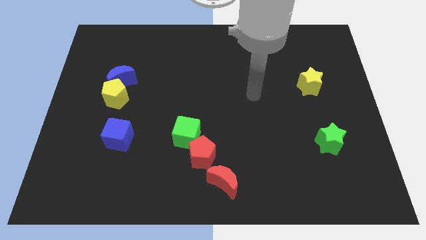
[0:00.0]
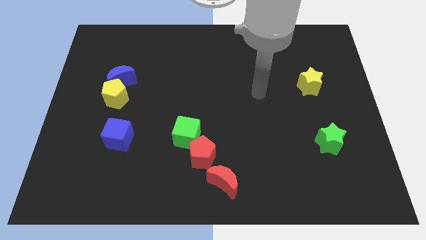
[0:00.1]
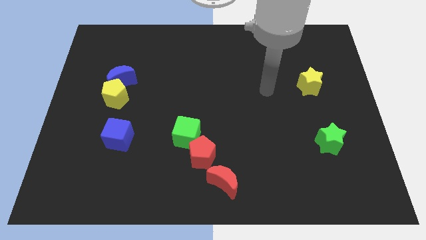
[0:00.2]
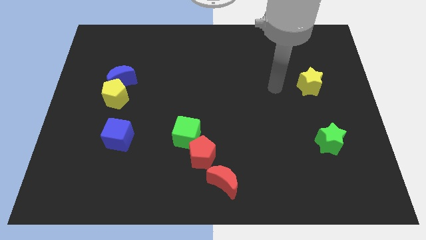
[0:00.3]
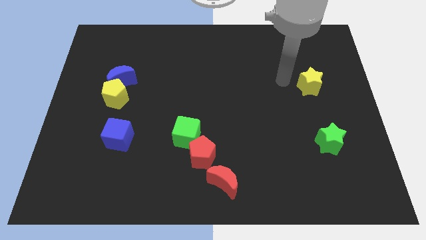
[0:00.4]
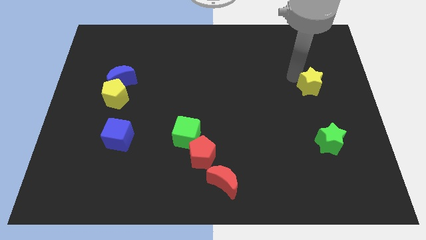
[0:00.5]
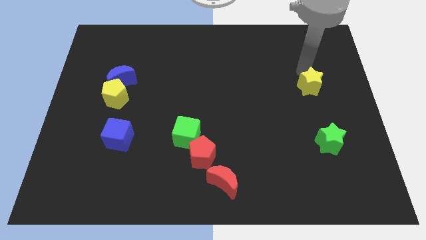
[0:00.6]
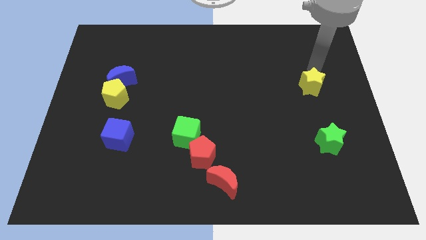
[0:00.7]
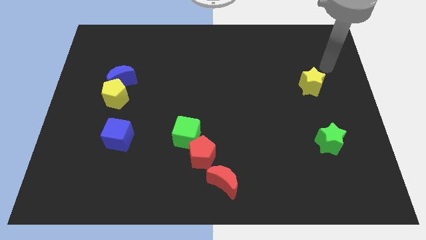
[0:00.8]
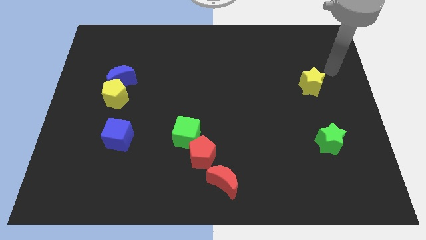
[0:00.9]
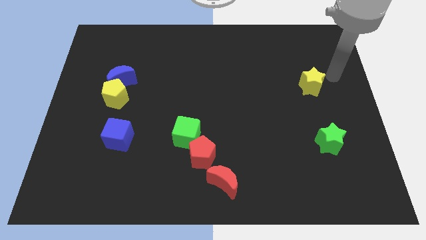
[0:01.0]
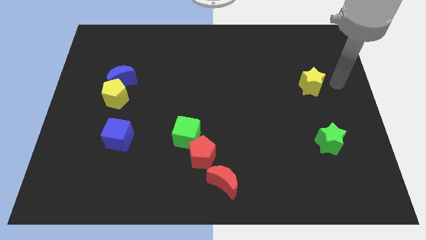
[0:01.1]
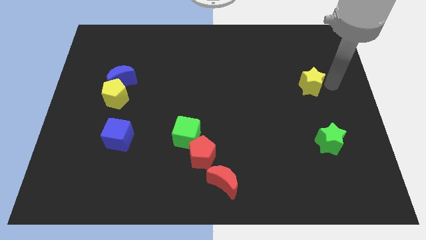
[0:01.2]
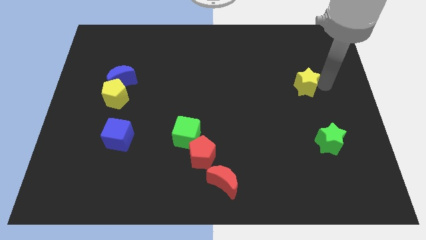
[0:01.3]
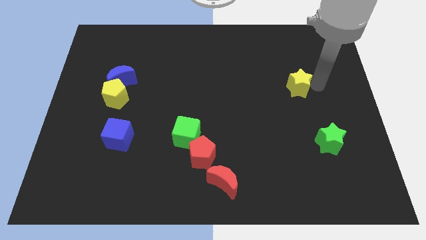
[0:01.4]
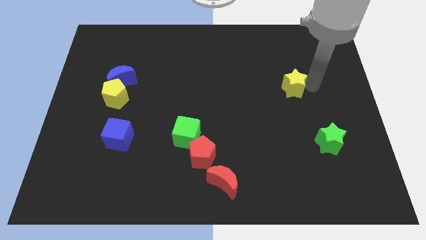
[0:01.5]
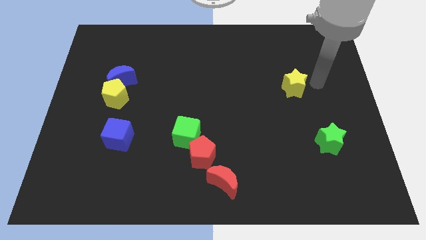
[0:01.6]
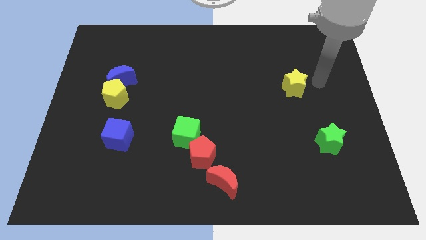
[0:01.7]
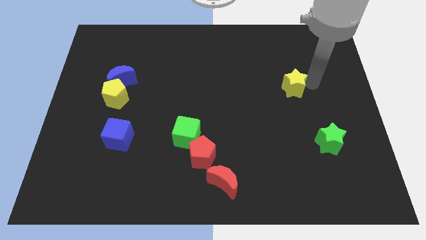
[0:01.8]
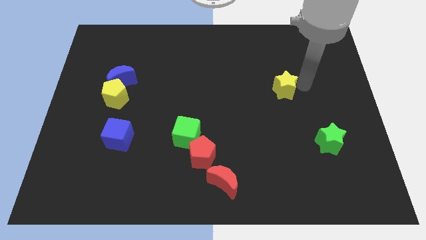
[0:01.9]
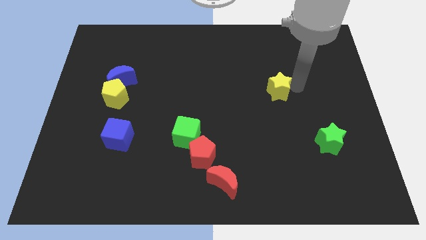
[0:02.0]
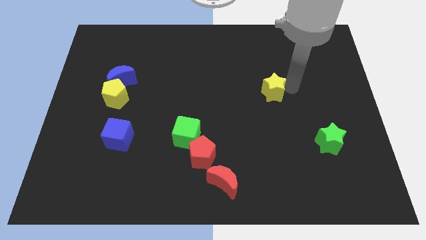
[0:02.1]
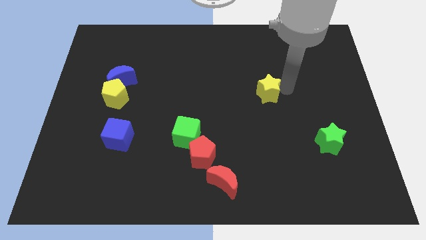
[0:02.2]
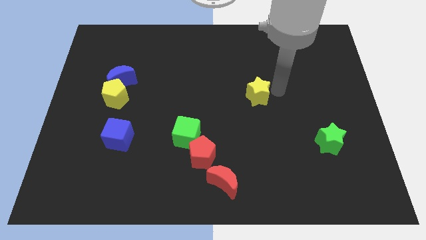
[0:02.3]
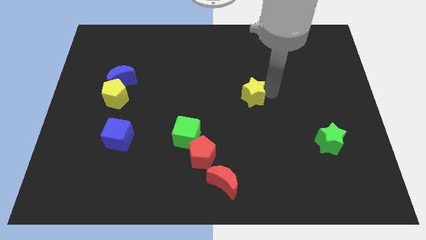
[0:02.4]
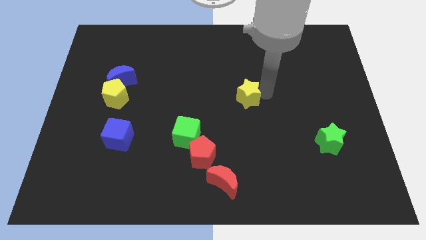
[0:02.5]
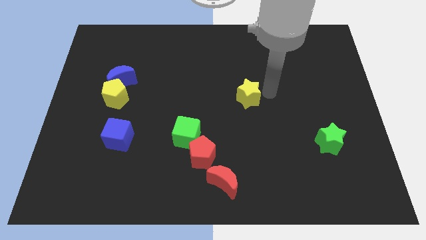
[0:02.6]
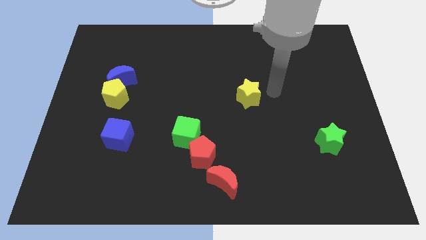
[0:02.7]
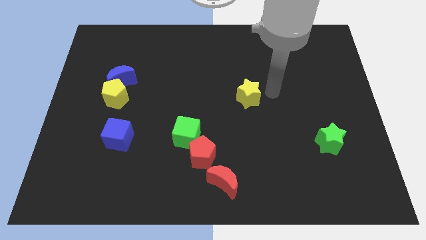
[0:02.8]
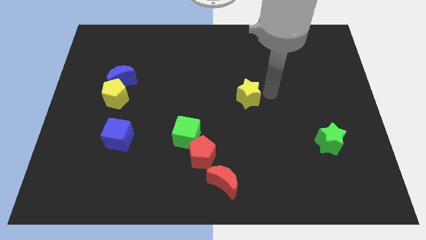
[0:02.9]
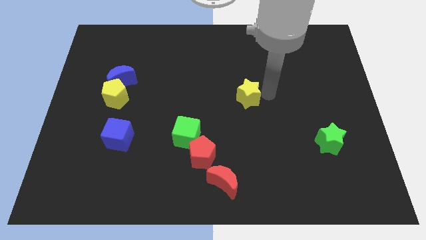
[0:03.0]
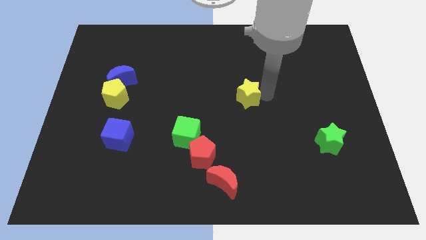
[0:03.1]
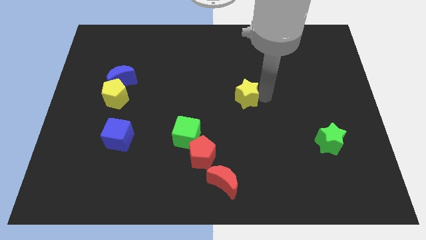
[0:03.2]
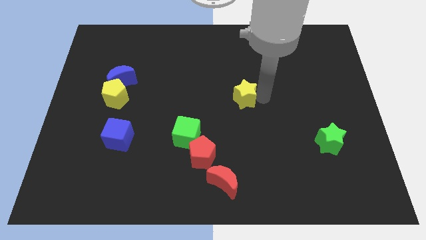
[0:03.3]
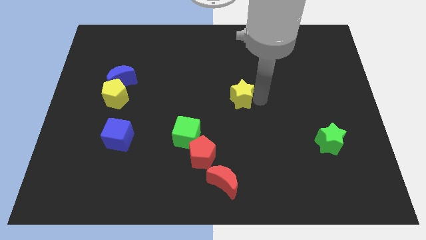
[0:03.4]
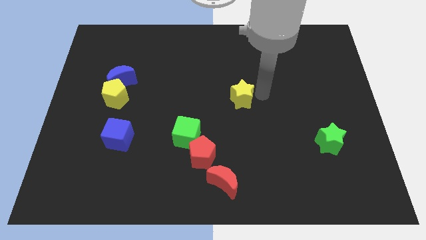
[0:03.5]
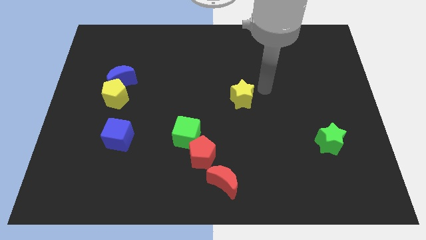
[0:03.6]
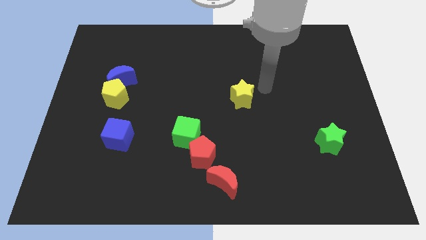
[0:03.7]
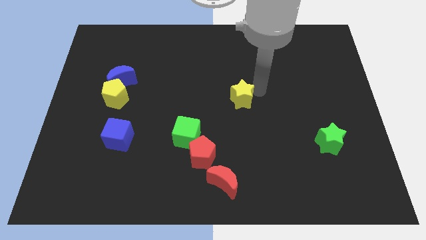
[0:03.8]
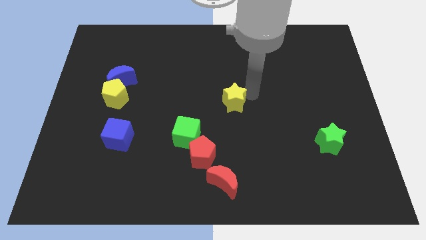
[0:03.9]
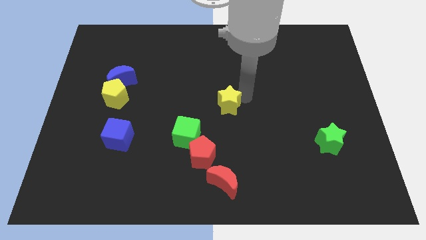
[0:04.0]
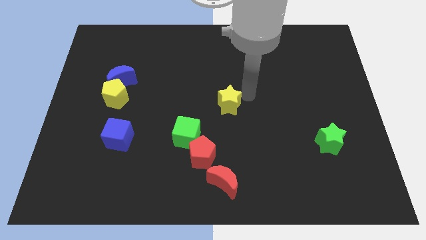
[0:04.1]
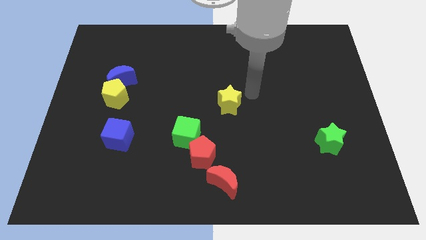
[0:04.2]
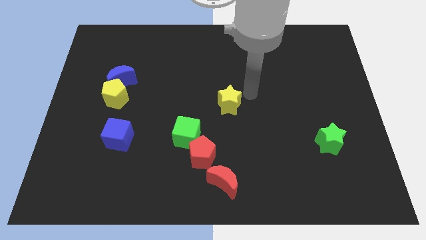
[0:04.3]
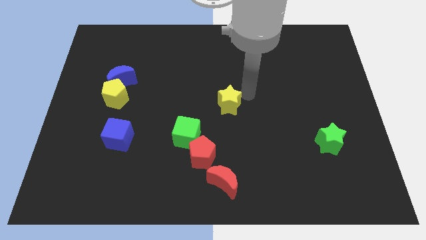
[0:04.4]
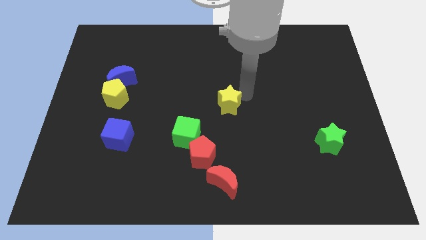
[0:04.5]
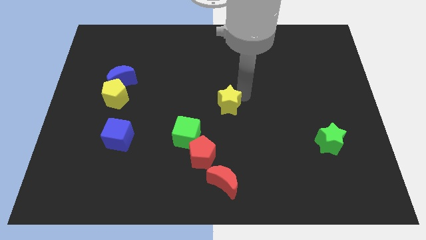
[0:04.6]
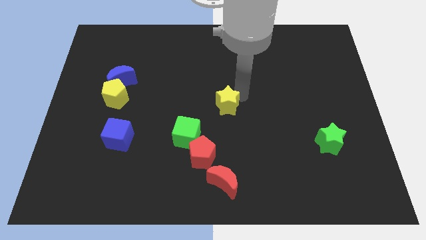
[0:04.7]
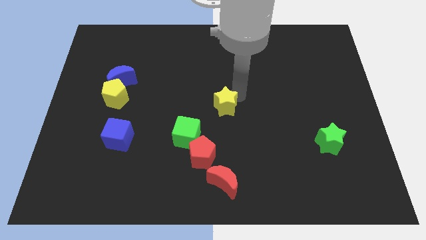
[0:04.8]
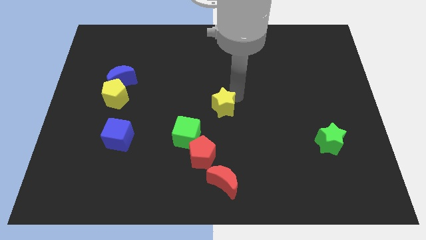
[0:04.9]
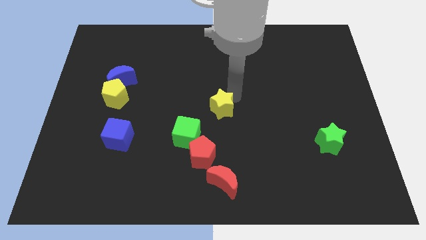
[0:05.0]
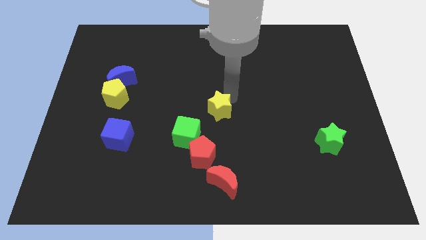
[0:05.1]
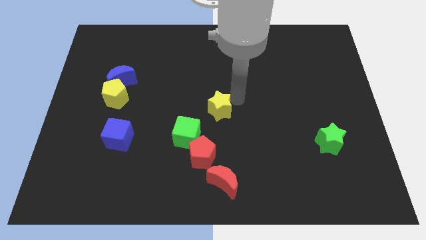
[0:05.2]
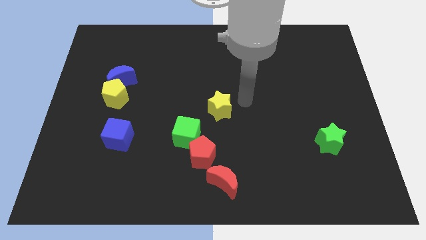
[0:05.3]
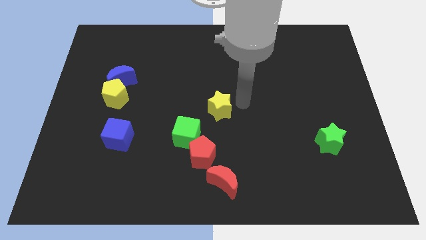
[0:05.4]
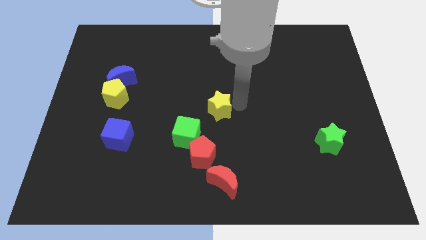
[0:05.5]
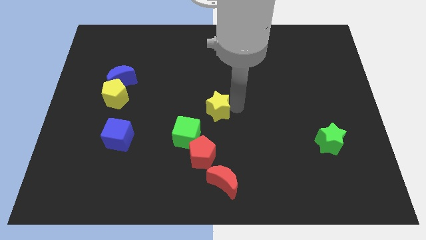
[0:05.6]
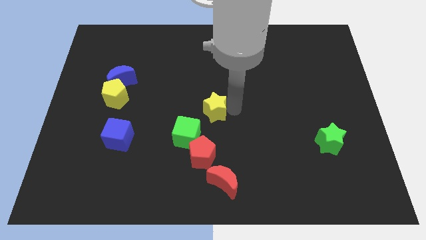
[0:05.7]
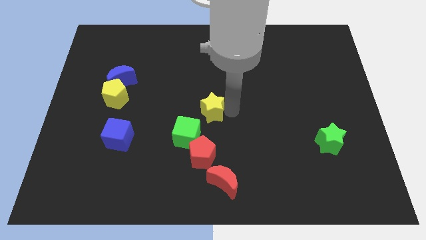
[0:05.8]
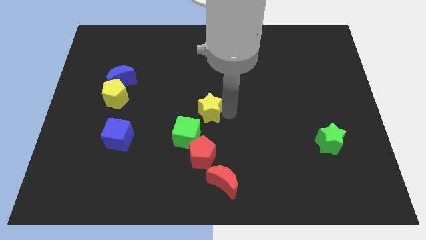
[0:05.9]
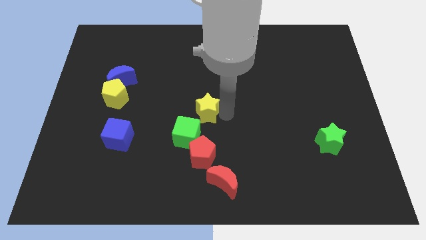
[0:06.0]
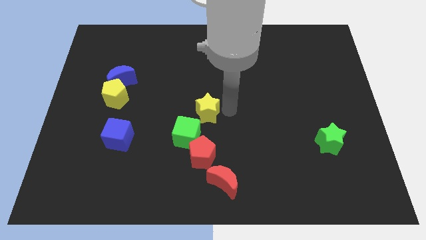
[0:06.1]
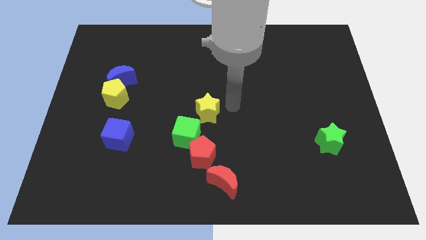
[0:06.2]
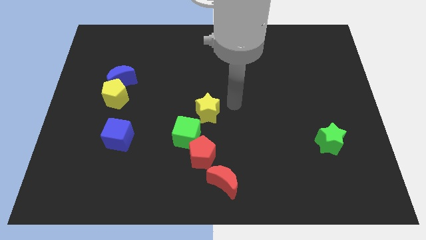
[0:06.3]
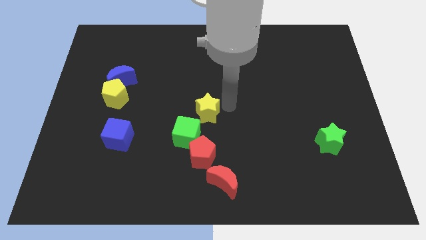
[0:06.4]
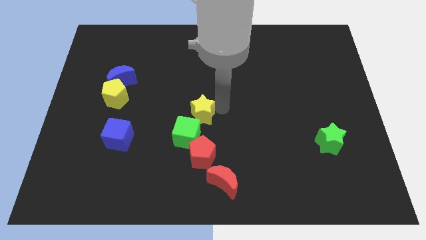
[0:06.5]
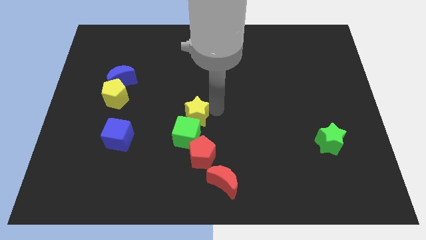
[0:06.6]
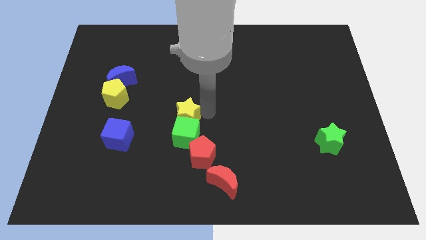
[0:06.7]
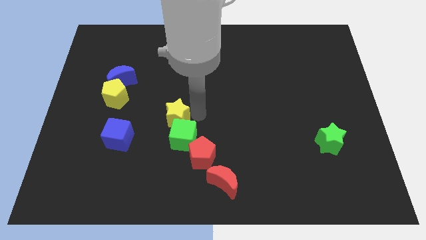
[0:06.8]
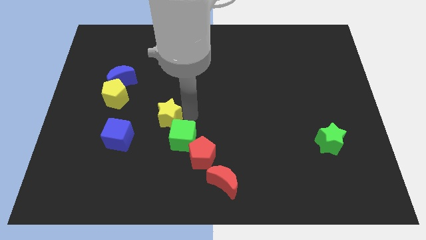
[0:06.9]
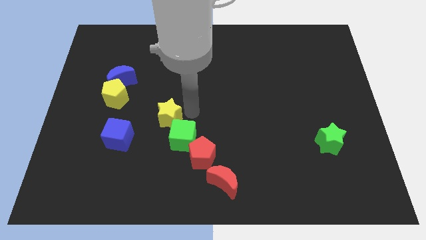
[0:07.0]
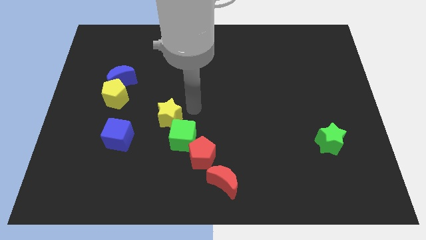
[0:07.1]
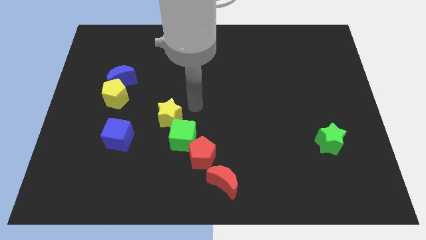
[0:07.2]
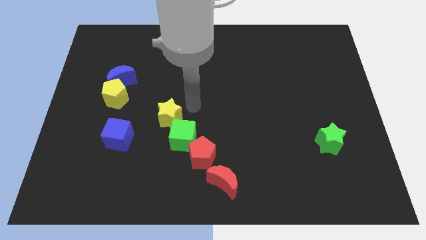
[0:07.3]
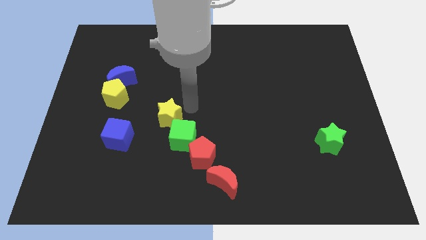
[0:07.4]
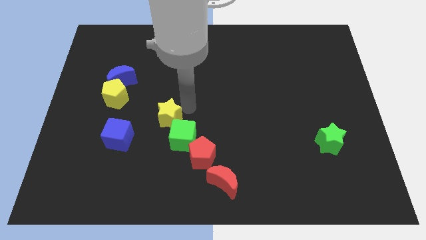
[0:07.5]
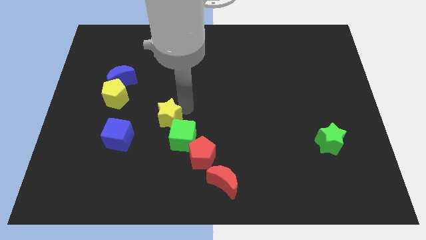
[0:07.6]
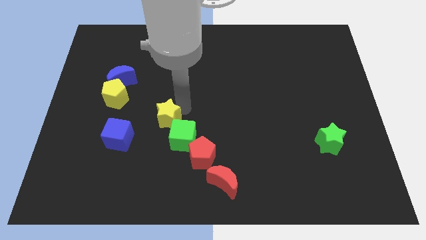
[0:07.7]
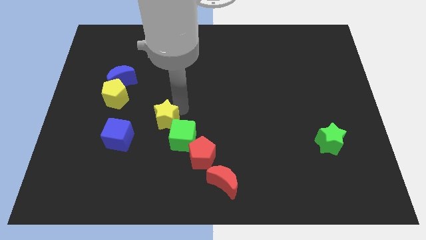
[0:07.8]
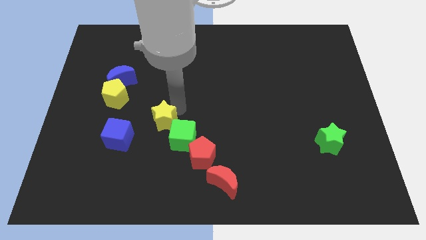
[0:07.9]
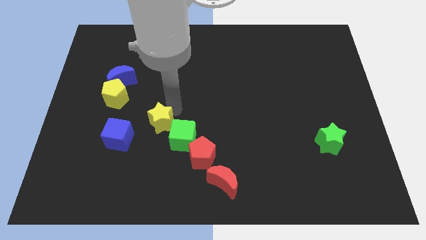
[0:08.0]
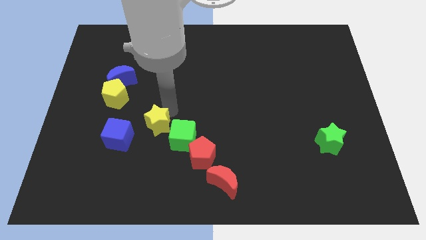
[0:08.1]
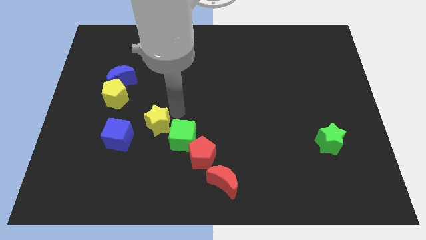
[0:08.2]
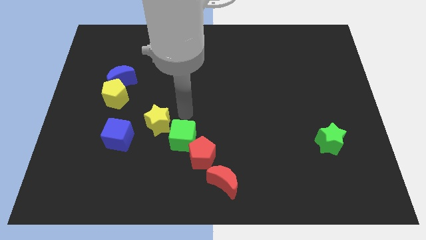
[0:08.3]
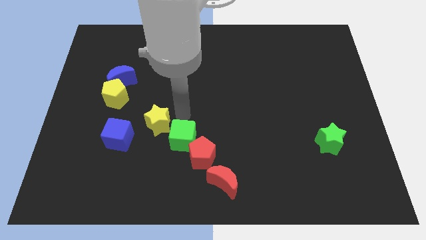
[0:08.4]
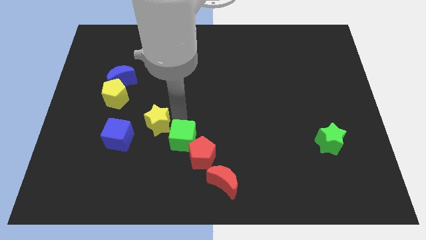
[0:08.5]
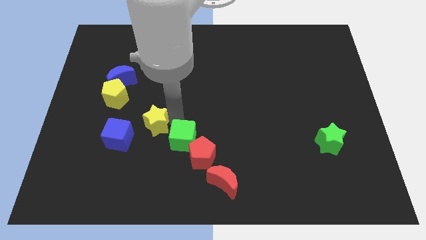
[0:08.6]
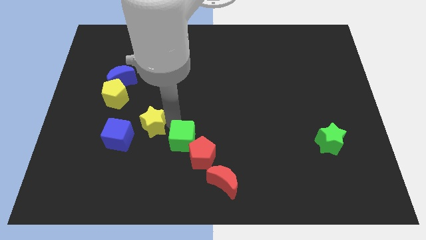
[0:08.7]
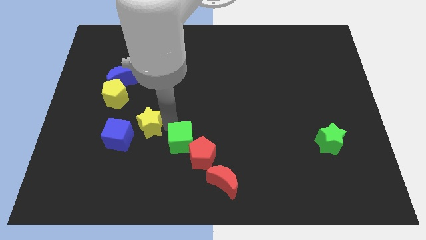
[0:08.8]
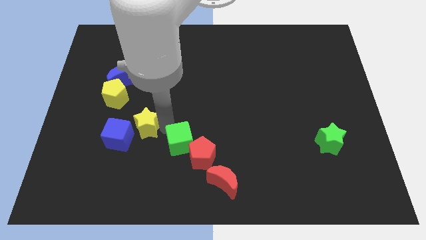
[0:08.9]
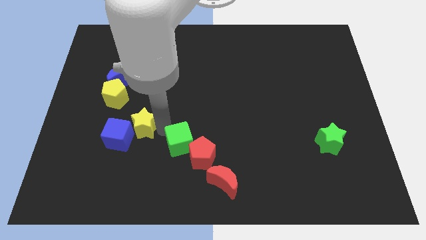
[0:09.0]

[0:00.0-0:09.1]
move the yellow star towards the blue cube
